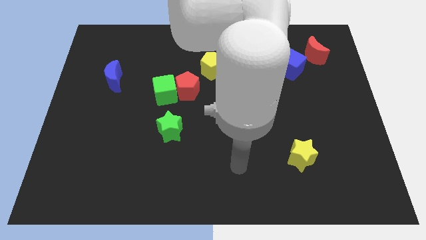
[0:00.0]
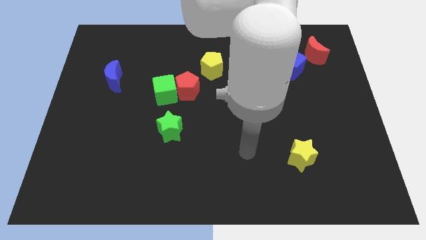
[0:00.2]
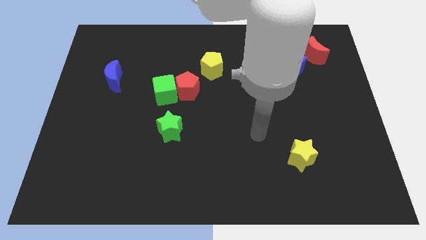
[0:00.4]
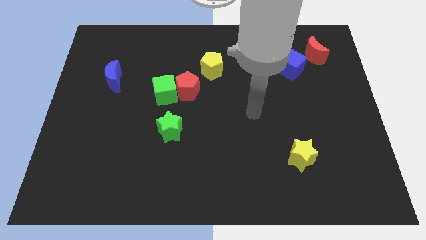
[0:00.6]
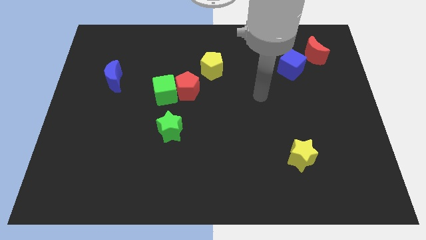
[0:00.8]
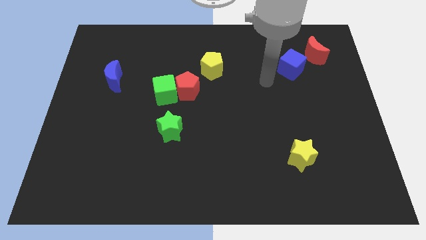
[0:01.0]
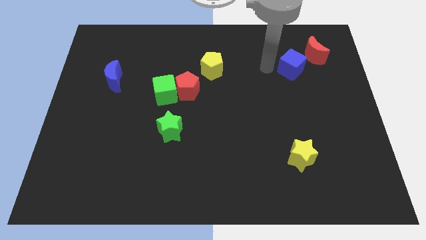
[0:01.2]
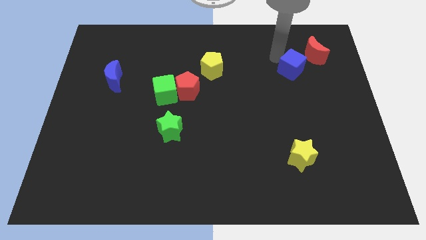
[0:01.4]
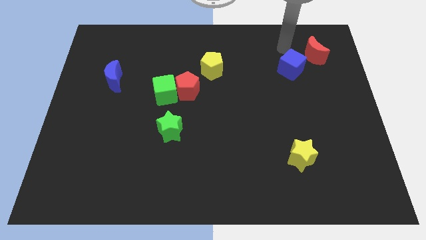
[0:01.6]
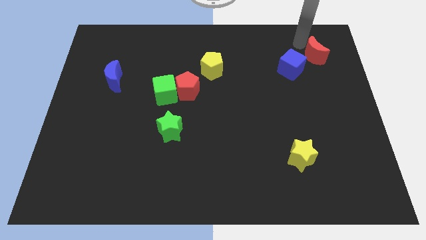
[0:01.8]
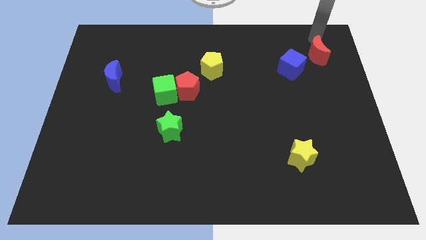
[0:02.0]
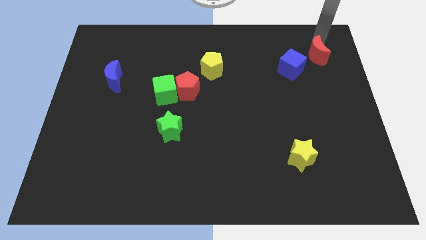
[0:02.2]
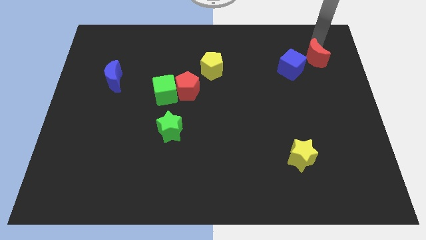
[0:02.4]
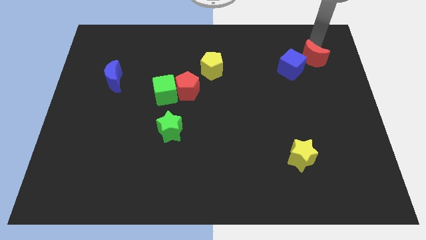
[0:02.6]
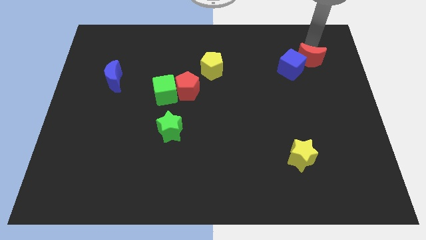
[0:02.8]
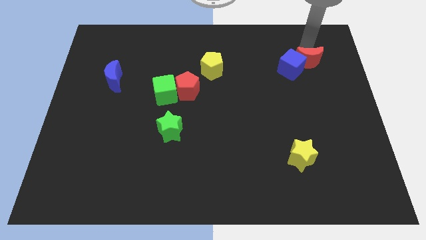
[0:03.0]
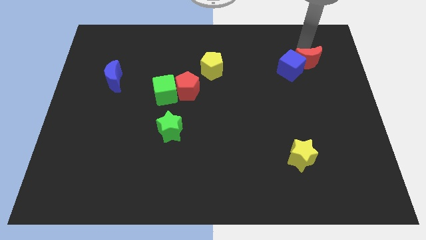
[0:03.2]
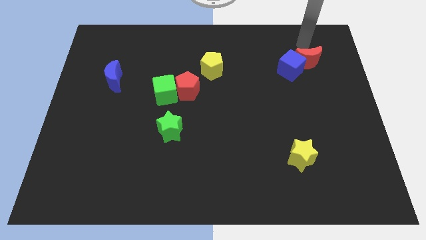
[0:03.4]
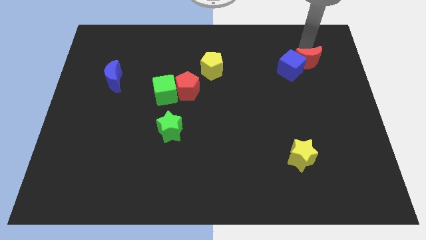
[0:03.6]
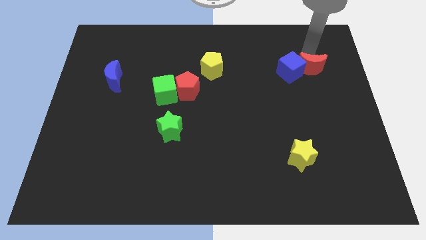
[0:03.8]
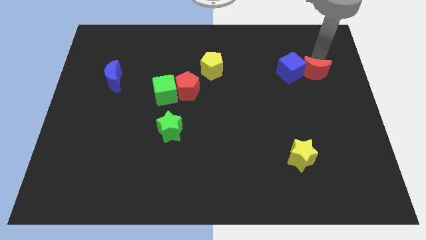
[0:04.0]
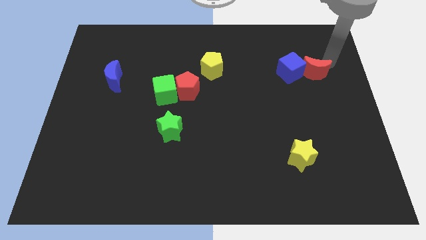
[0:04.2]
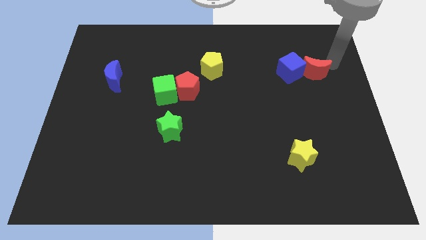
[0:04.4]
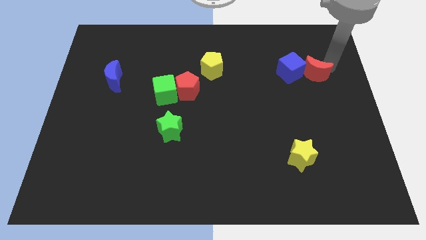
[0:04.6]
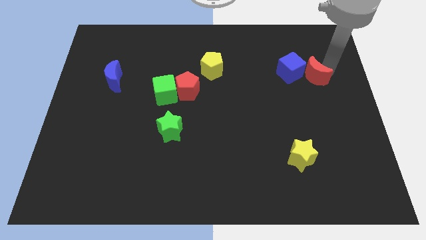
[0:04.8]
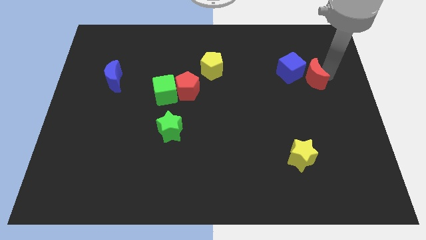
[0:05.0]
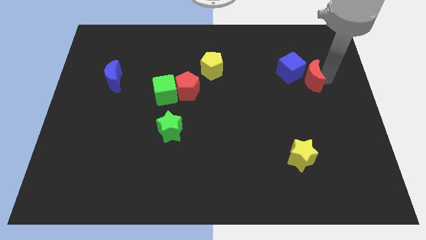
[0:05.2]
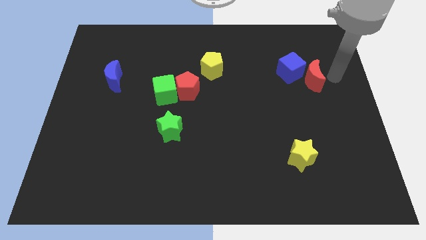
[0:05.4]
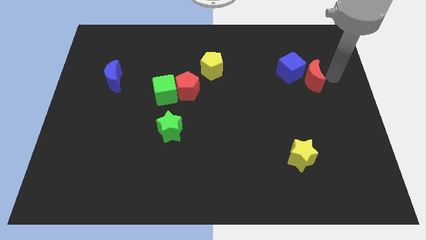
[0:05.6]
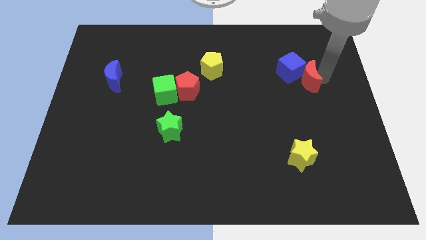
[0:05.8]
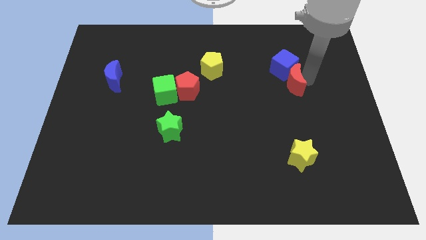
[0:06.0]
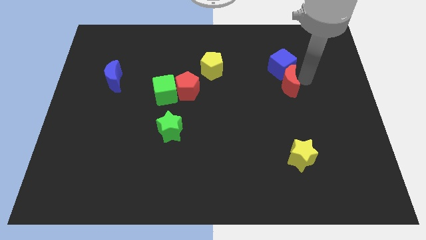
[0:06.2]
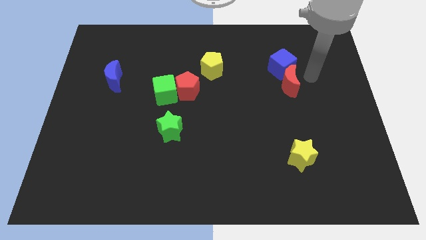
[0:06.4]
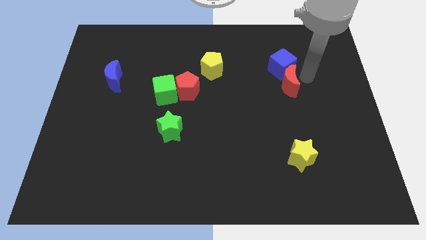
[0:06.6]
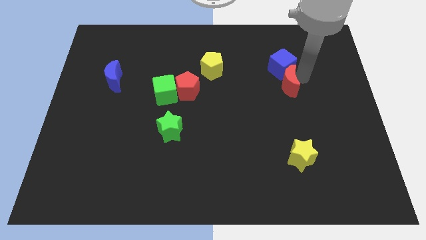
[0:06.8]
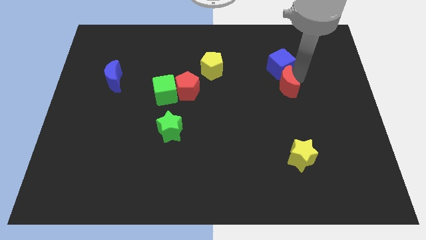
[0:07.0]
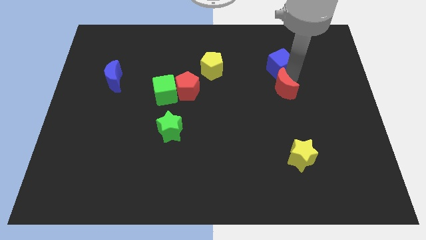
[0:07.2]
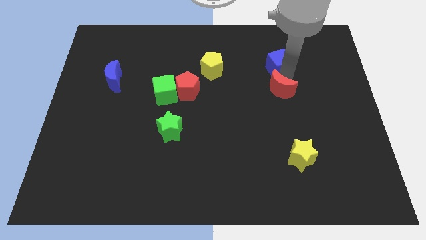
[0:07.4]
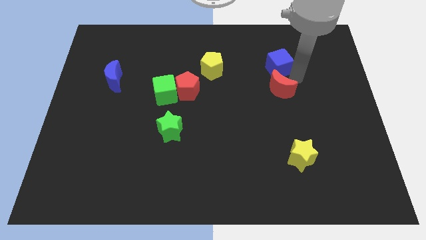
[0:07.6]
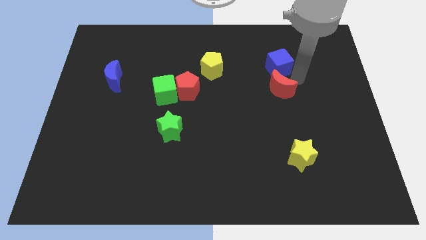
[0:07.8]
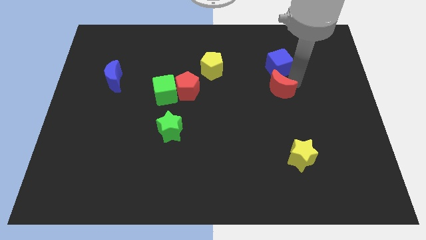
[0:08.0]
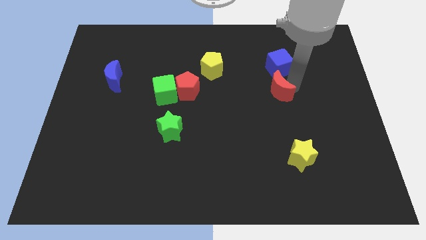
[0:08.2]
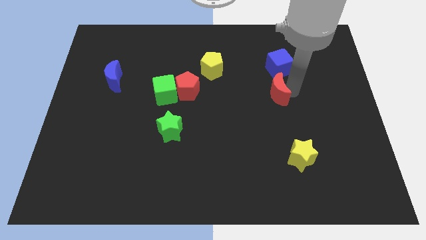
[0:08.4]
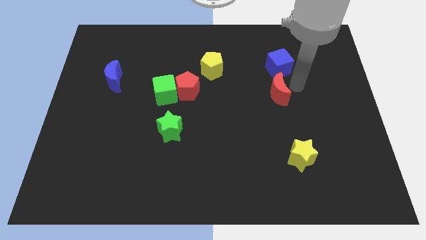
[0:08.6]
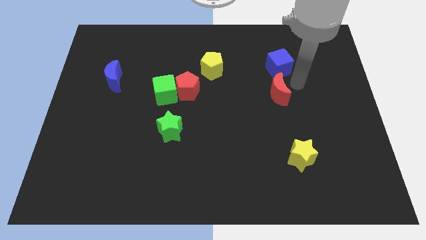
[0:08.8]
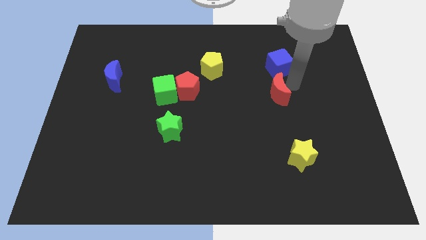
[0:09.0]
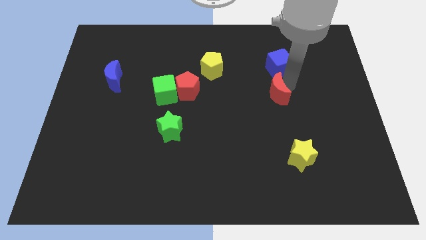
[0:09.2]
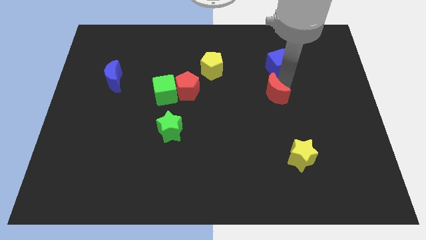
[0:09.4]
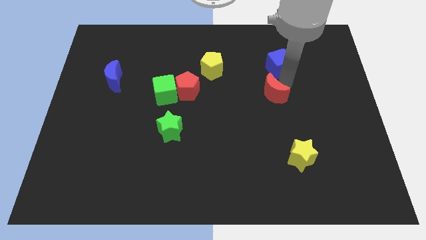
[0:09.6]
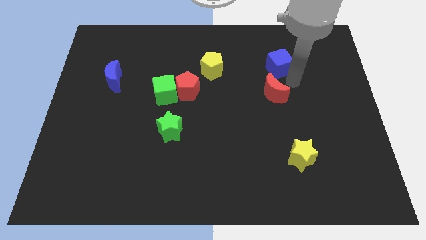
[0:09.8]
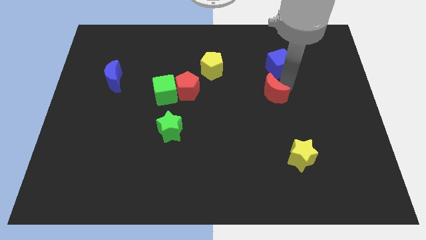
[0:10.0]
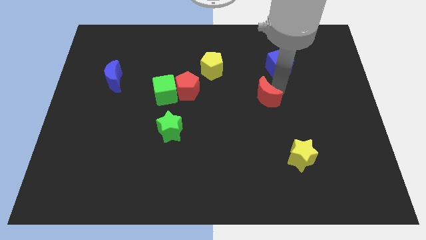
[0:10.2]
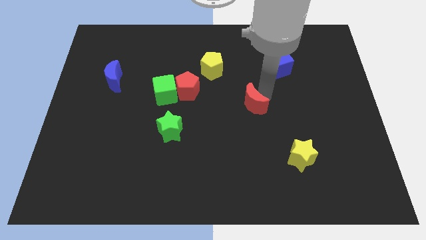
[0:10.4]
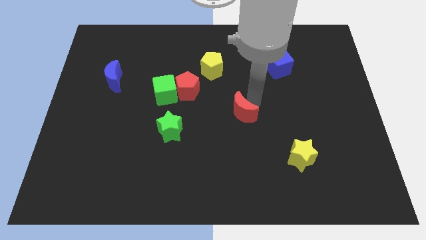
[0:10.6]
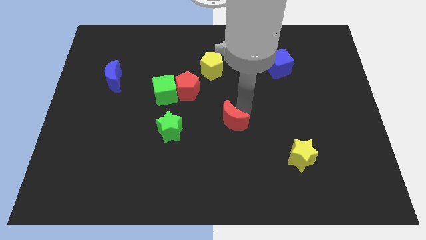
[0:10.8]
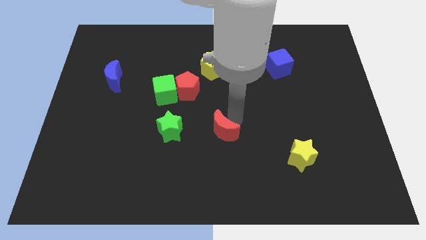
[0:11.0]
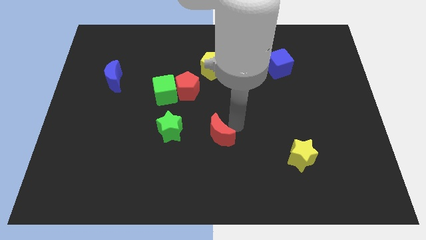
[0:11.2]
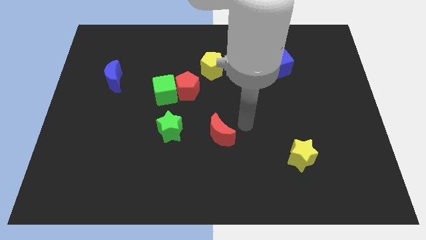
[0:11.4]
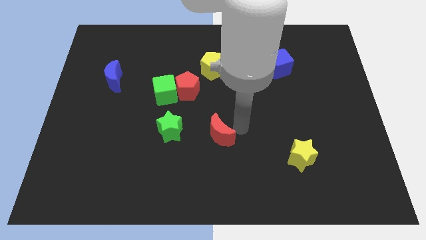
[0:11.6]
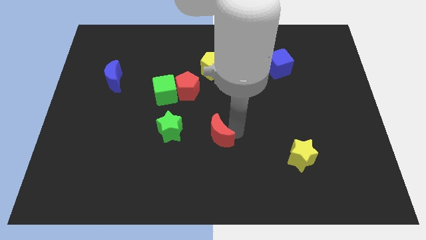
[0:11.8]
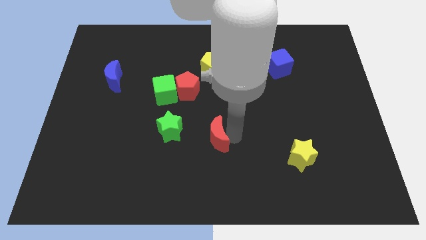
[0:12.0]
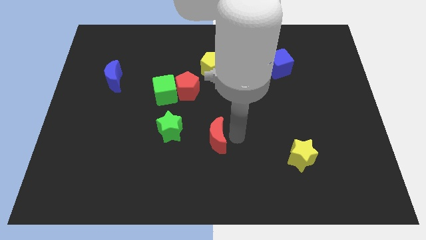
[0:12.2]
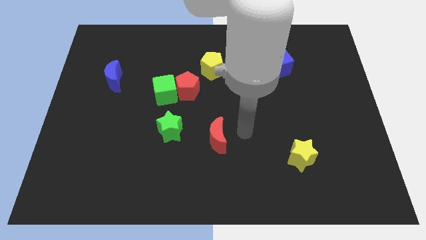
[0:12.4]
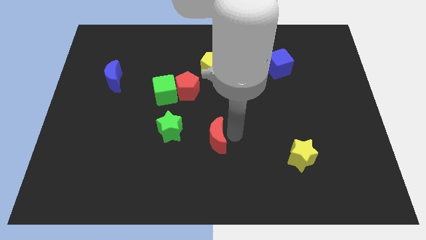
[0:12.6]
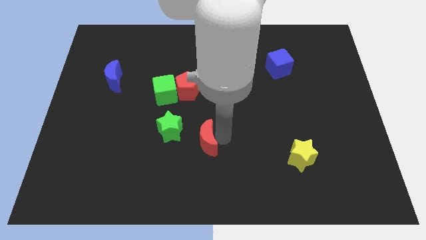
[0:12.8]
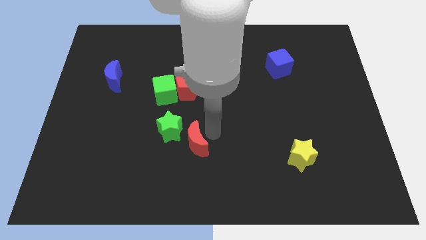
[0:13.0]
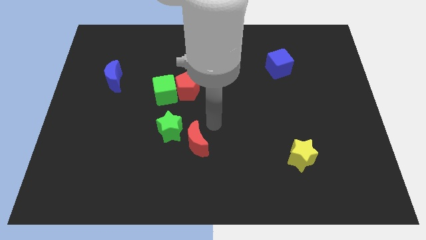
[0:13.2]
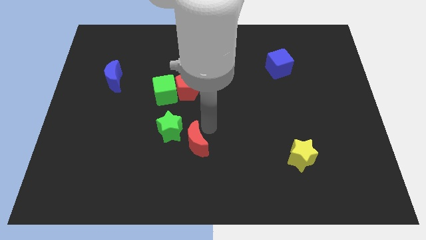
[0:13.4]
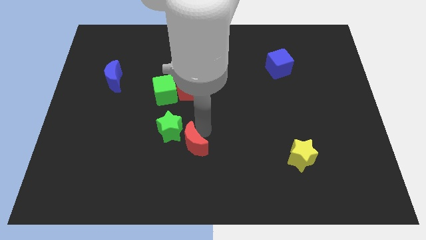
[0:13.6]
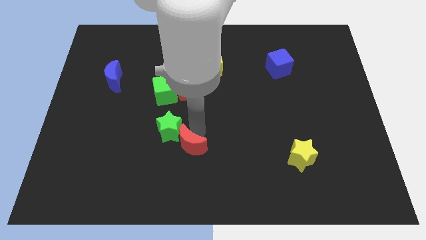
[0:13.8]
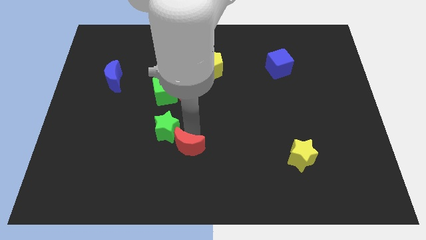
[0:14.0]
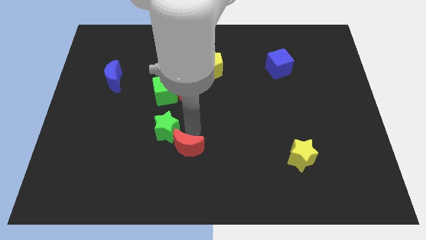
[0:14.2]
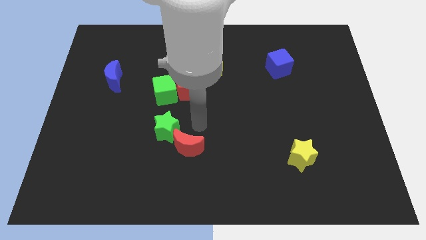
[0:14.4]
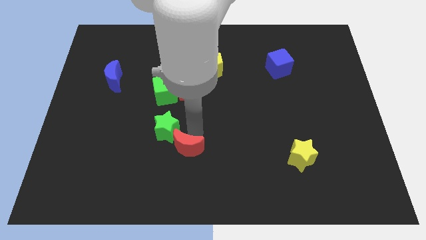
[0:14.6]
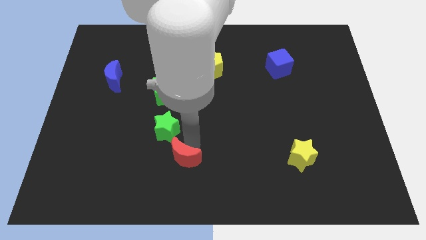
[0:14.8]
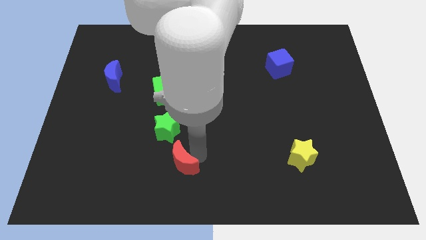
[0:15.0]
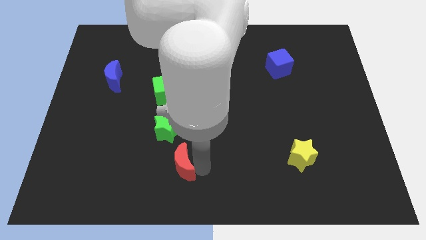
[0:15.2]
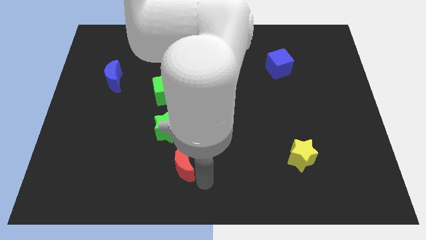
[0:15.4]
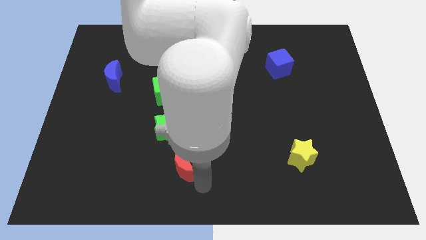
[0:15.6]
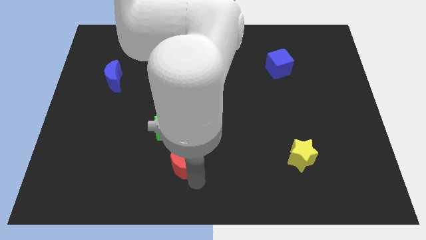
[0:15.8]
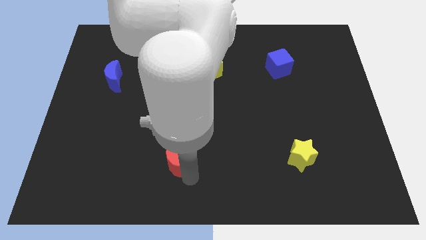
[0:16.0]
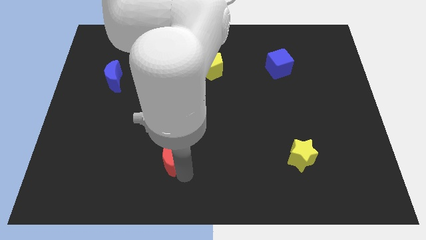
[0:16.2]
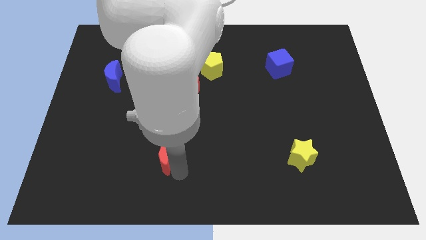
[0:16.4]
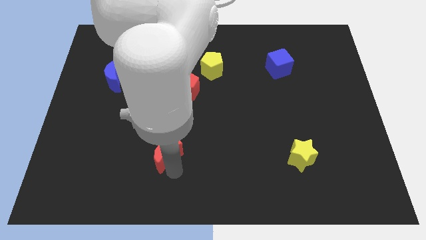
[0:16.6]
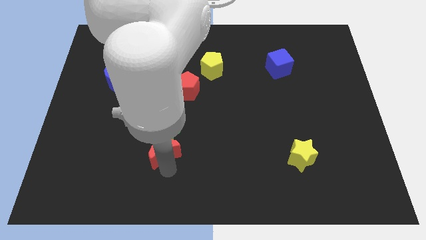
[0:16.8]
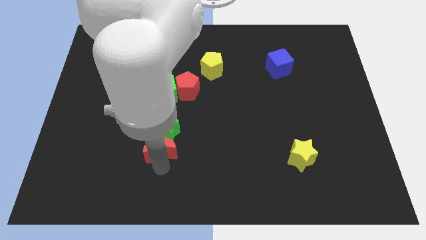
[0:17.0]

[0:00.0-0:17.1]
push the red moon below the green cube
